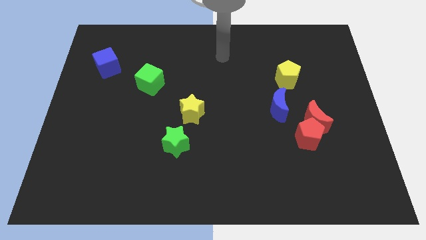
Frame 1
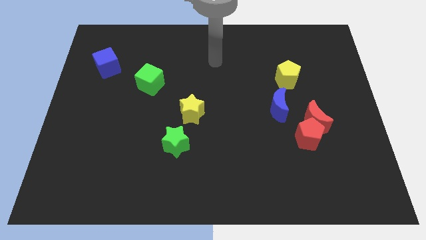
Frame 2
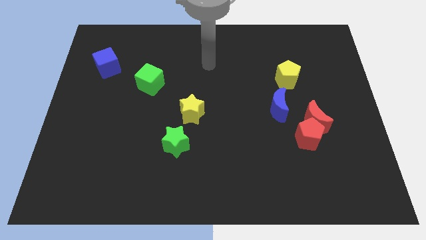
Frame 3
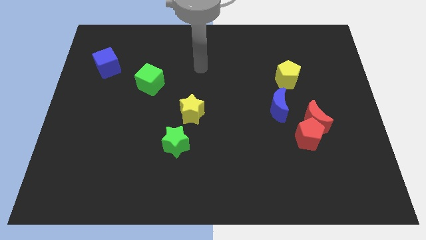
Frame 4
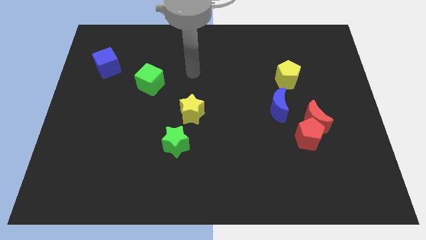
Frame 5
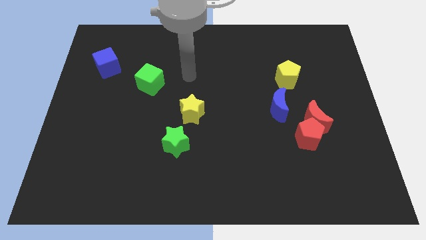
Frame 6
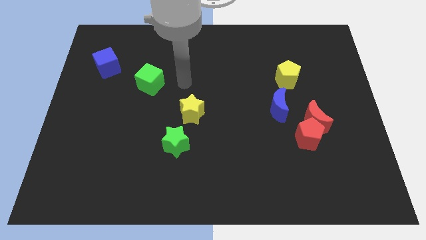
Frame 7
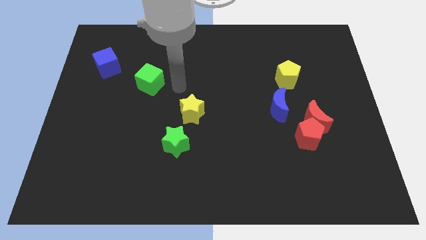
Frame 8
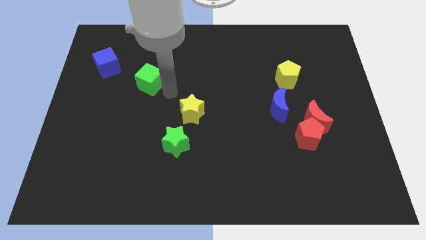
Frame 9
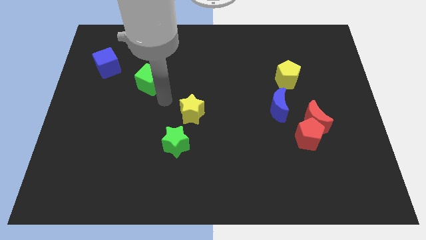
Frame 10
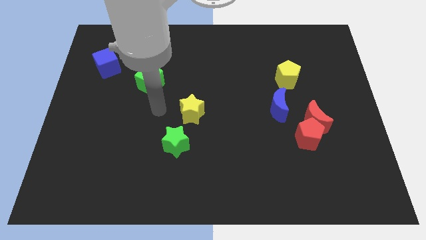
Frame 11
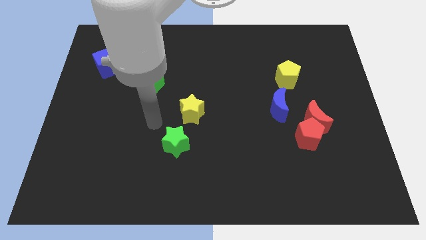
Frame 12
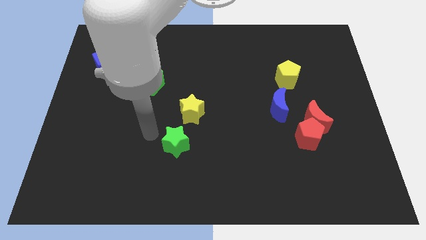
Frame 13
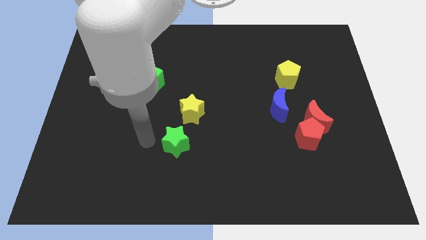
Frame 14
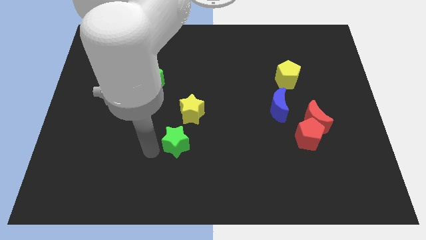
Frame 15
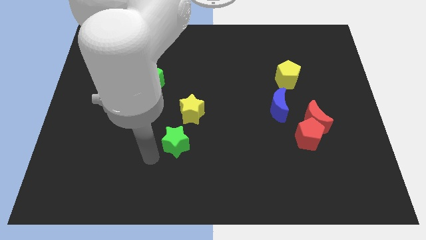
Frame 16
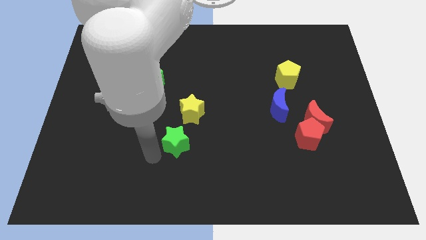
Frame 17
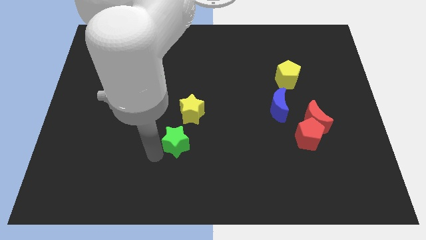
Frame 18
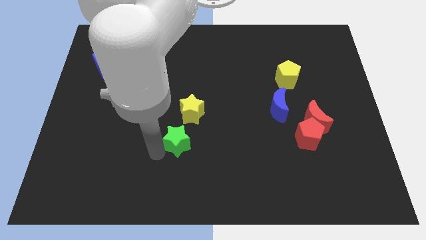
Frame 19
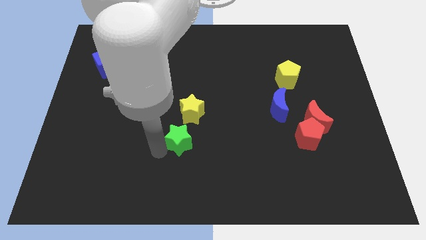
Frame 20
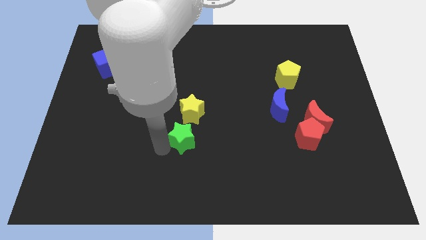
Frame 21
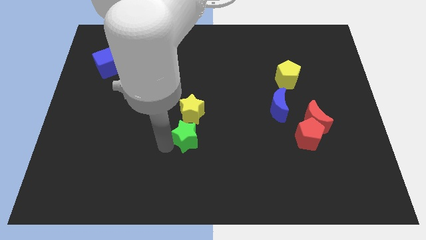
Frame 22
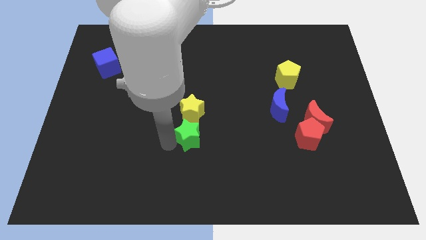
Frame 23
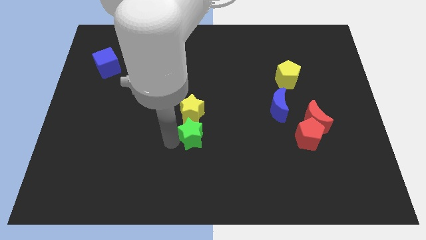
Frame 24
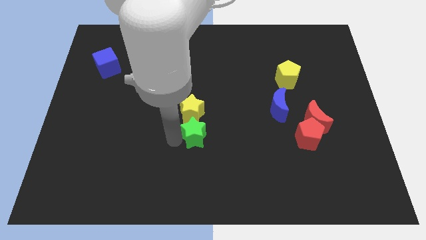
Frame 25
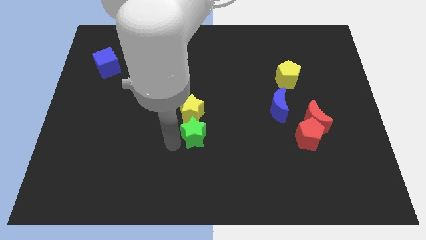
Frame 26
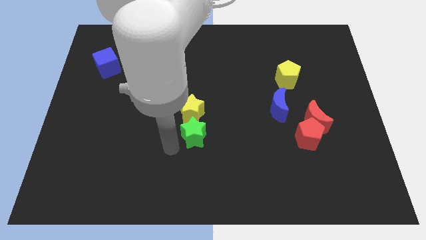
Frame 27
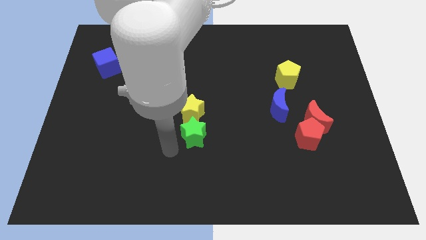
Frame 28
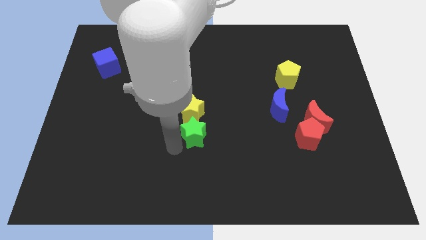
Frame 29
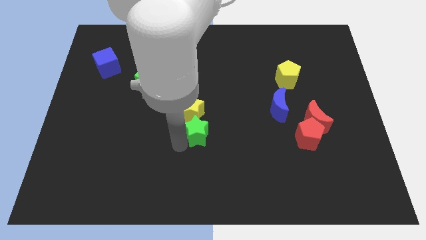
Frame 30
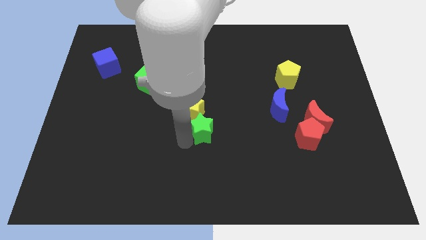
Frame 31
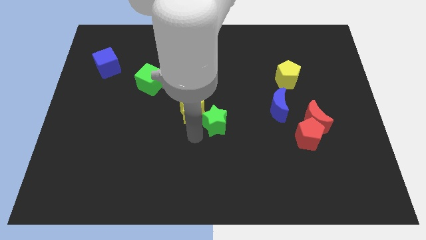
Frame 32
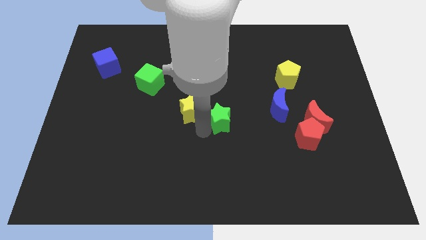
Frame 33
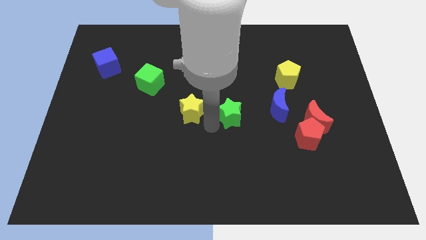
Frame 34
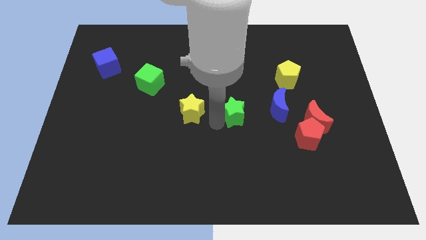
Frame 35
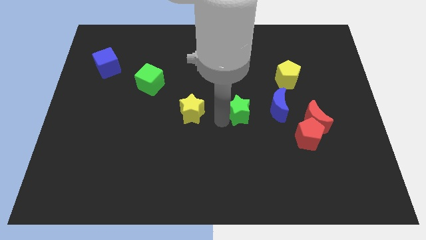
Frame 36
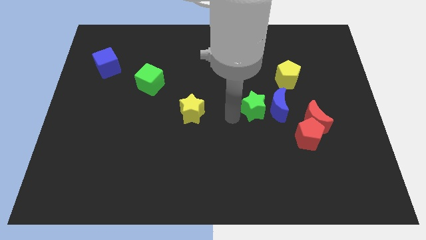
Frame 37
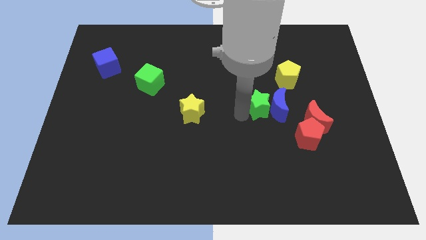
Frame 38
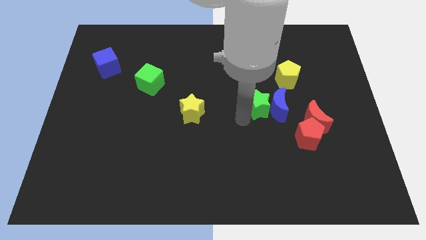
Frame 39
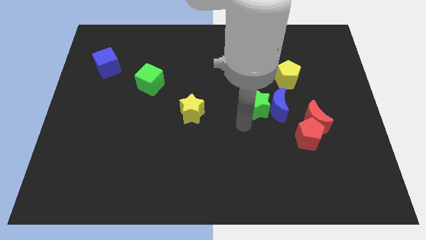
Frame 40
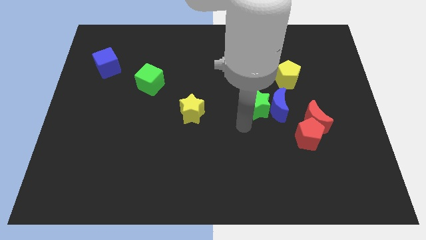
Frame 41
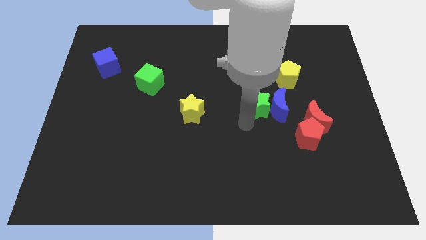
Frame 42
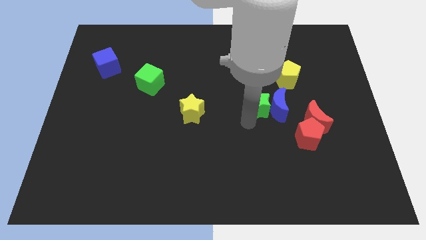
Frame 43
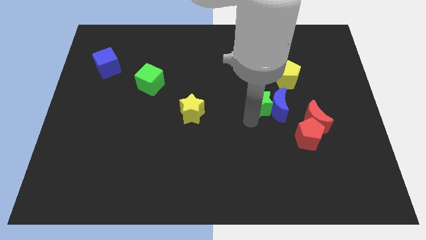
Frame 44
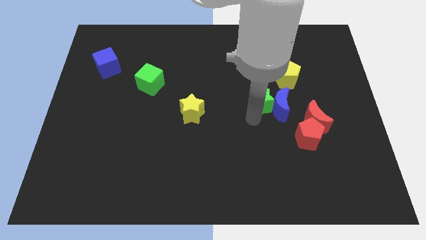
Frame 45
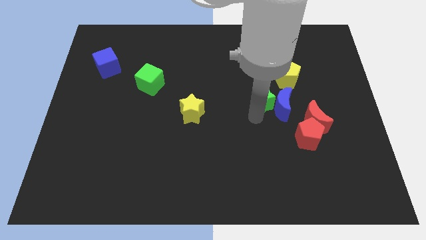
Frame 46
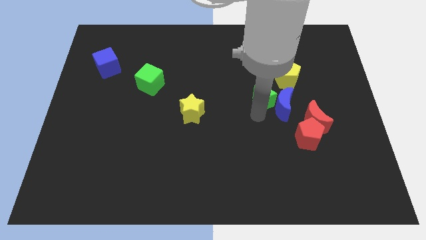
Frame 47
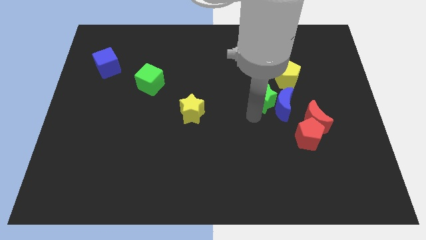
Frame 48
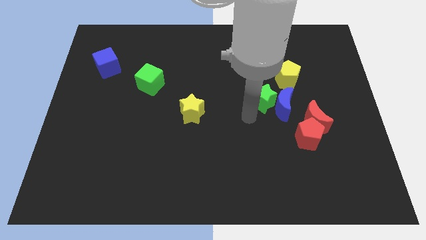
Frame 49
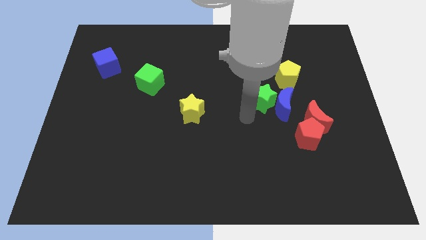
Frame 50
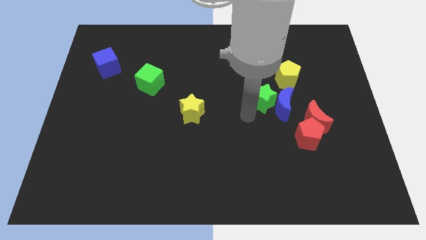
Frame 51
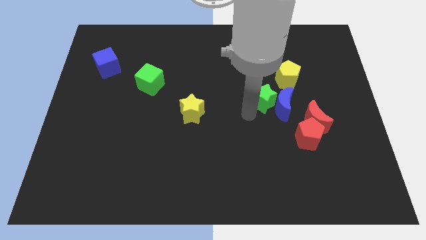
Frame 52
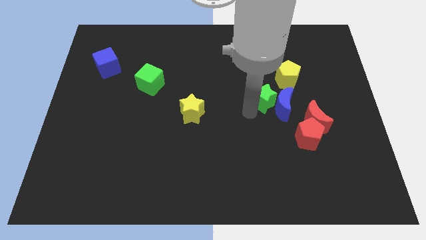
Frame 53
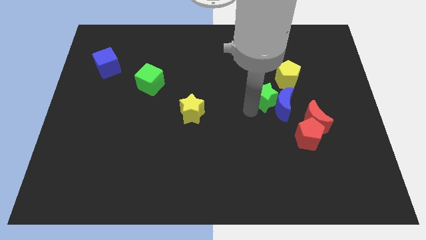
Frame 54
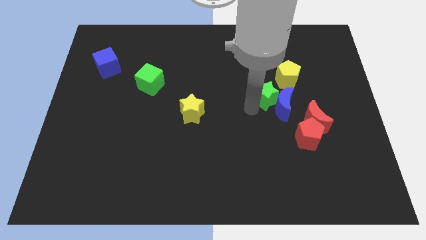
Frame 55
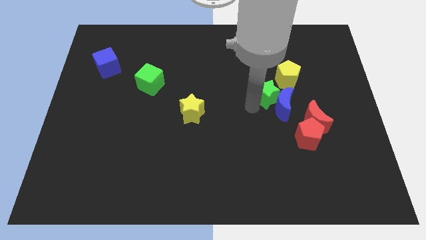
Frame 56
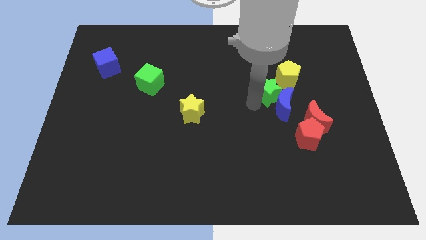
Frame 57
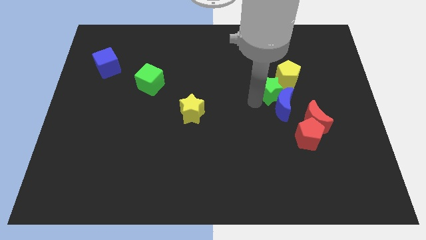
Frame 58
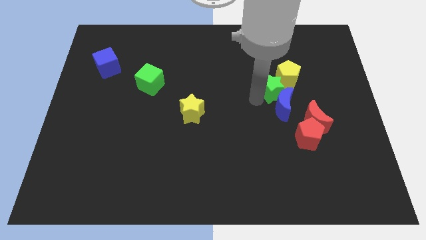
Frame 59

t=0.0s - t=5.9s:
slide the green star towards the yellow pentagon

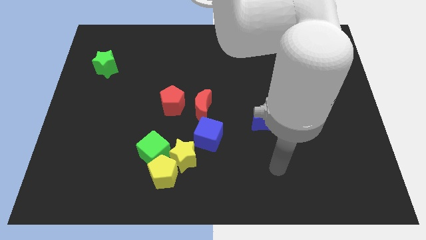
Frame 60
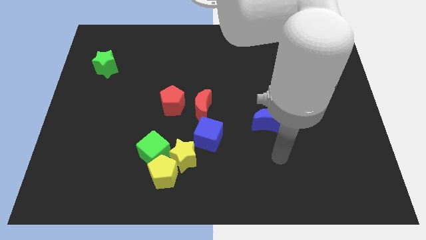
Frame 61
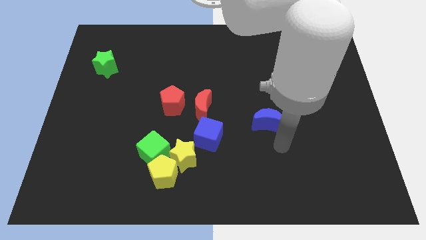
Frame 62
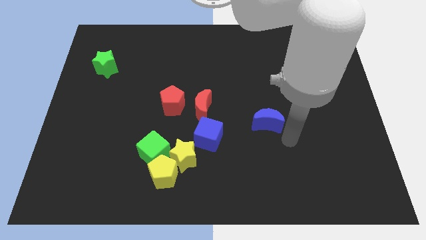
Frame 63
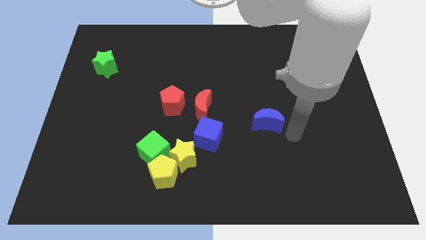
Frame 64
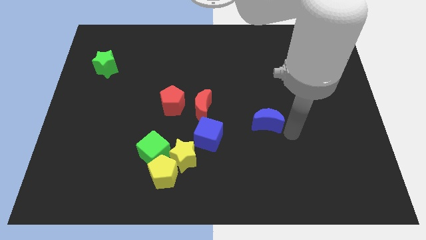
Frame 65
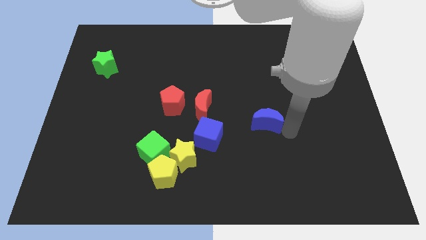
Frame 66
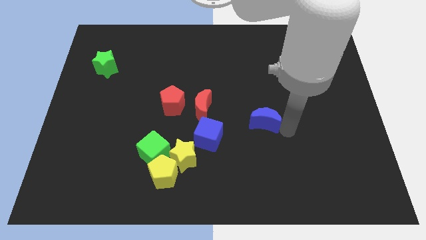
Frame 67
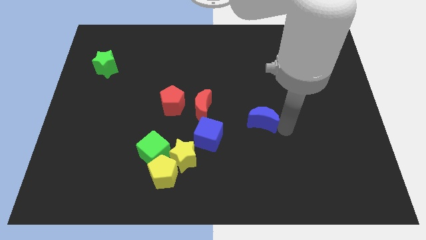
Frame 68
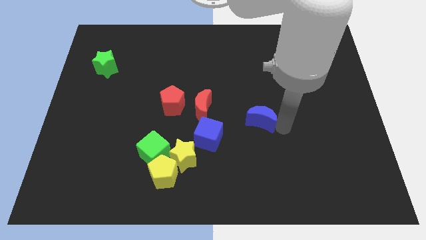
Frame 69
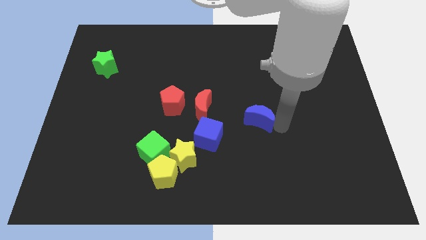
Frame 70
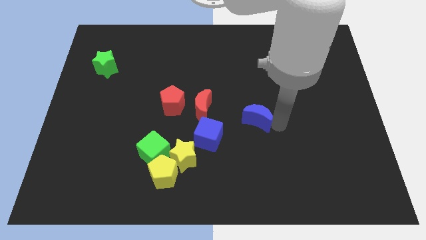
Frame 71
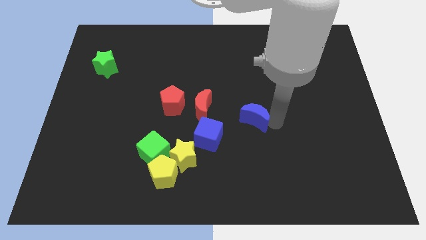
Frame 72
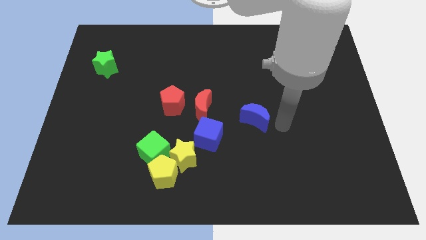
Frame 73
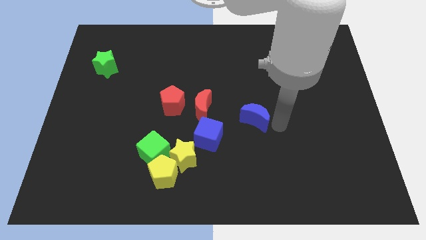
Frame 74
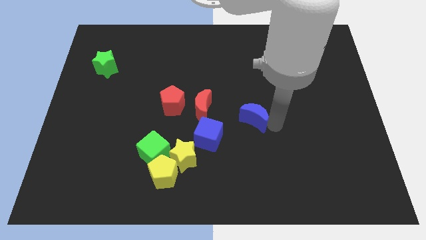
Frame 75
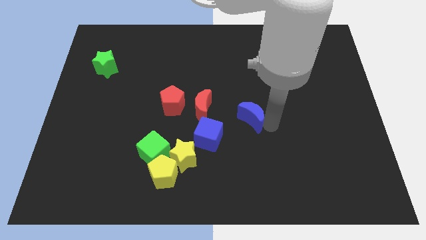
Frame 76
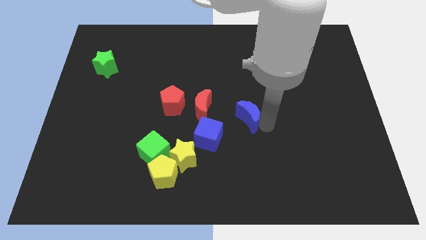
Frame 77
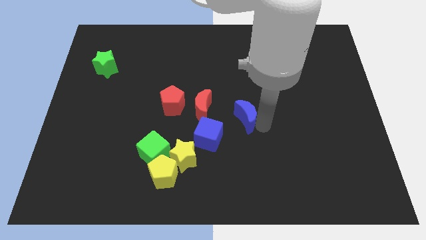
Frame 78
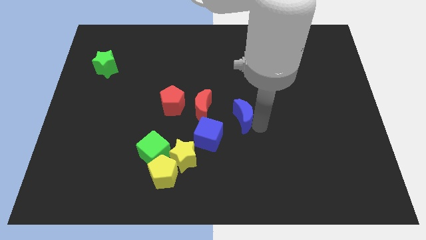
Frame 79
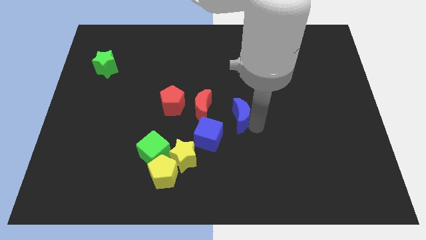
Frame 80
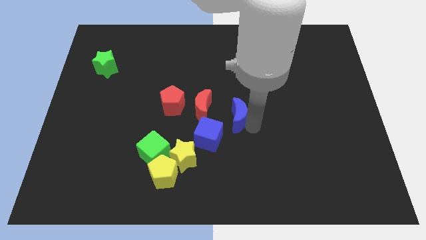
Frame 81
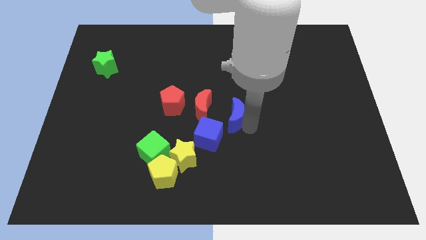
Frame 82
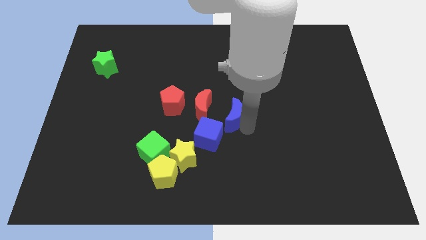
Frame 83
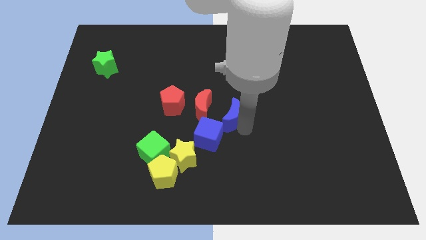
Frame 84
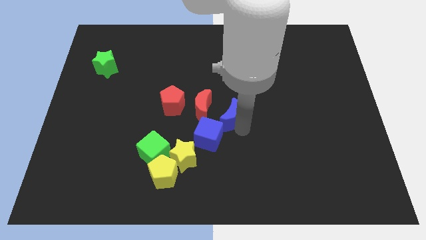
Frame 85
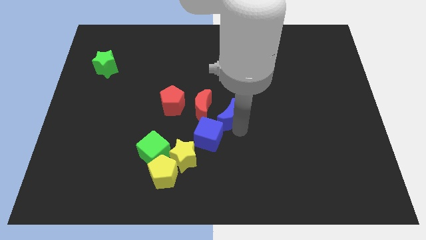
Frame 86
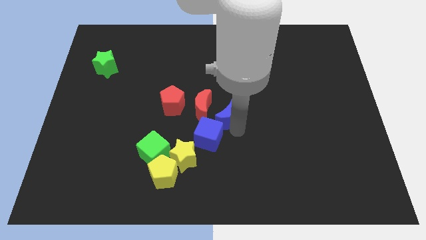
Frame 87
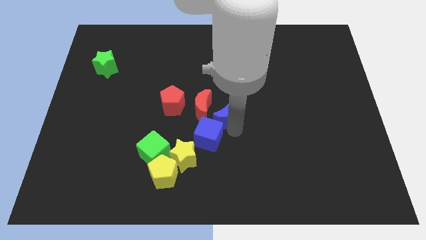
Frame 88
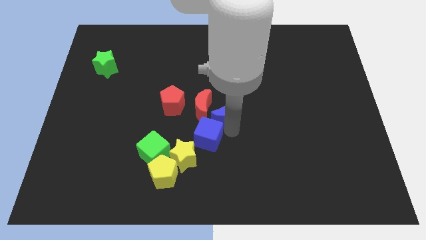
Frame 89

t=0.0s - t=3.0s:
move the blue moon next to the red moon
